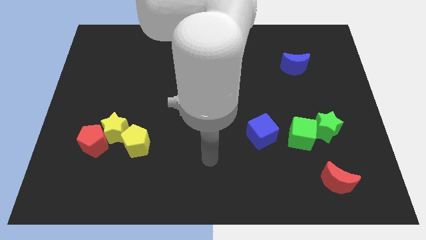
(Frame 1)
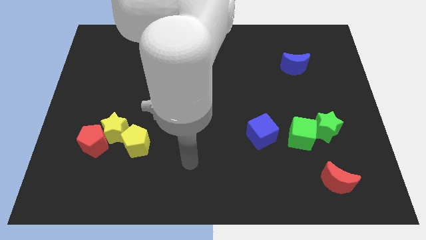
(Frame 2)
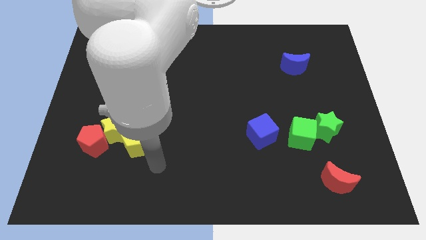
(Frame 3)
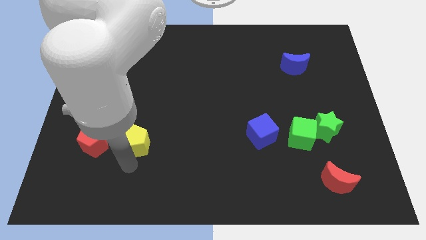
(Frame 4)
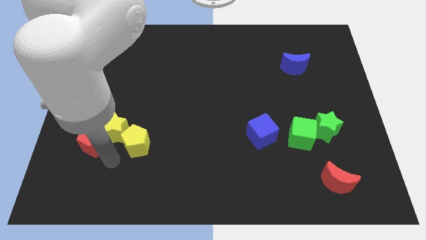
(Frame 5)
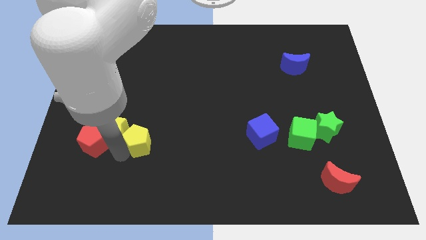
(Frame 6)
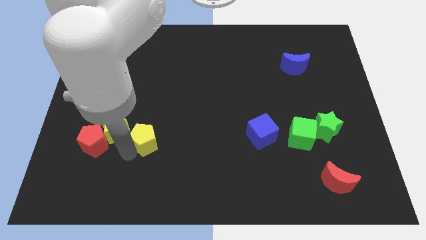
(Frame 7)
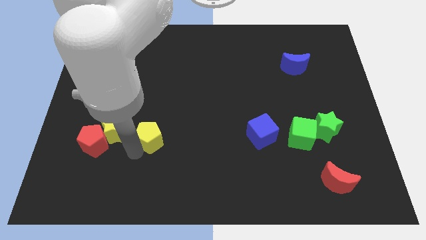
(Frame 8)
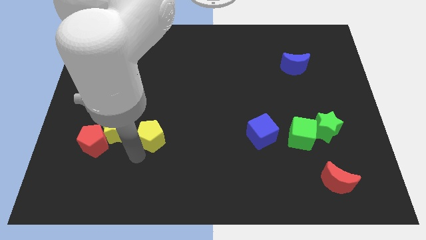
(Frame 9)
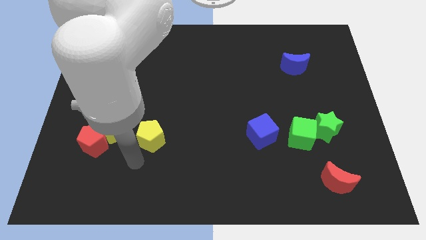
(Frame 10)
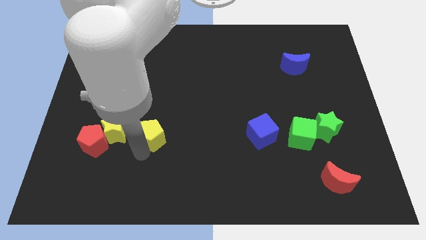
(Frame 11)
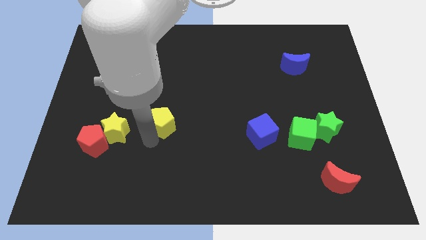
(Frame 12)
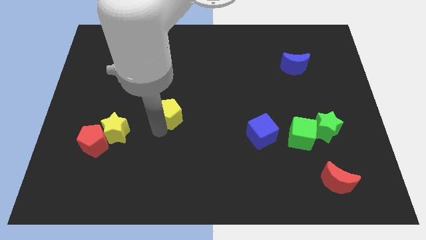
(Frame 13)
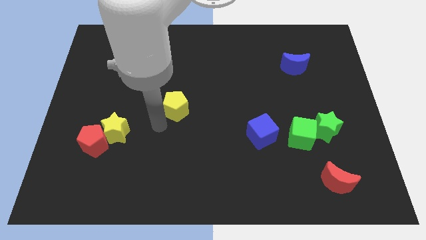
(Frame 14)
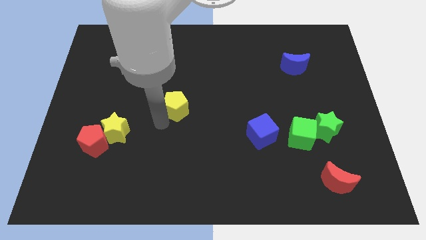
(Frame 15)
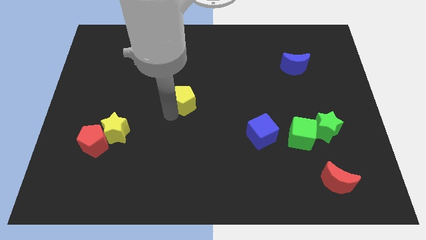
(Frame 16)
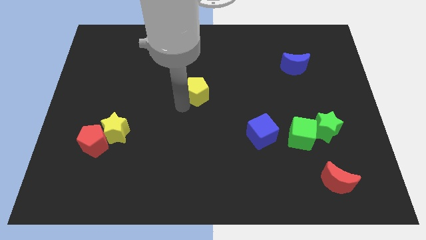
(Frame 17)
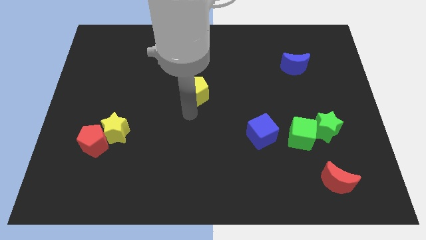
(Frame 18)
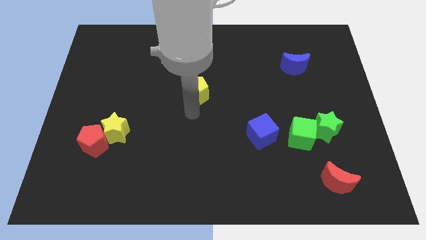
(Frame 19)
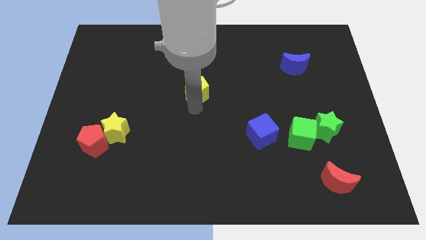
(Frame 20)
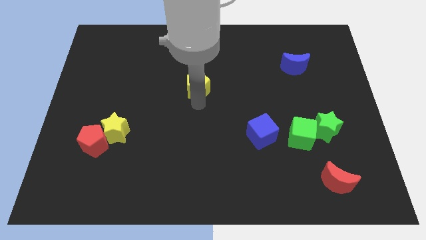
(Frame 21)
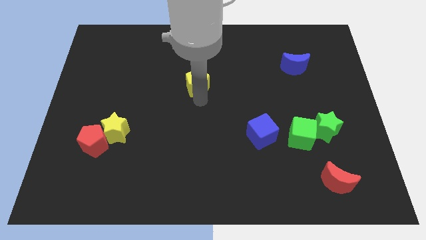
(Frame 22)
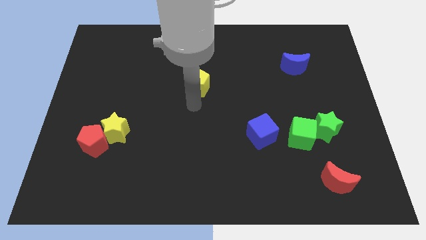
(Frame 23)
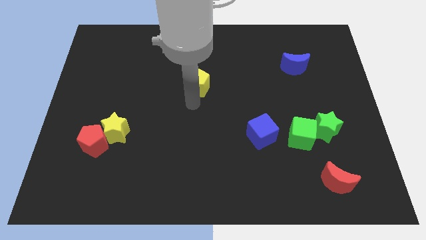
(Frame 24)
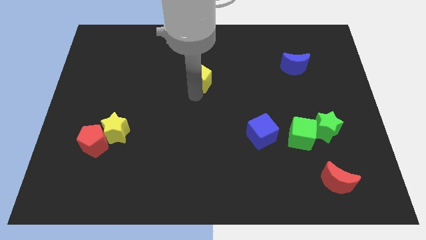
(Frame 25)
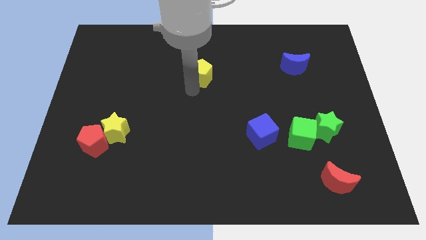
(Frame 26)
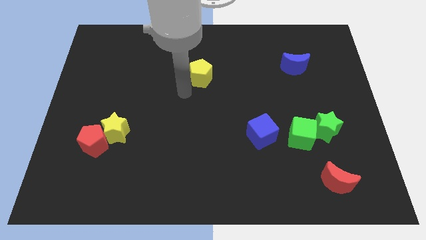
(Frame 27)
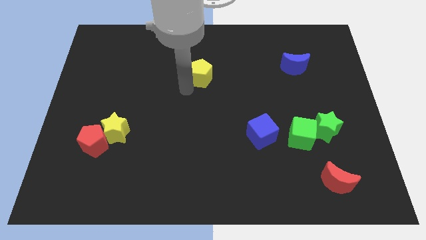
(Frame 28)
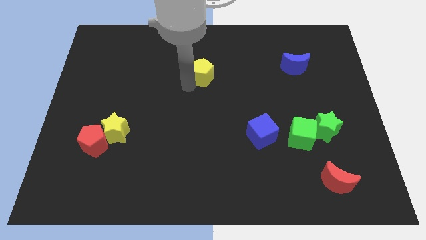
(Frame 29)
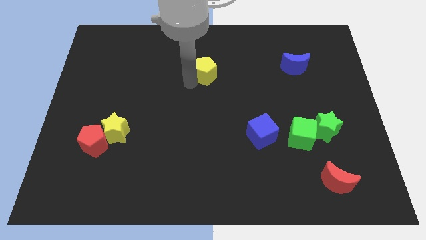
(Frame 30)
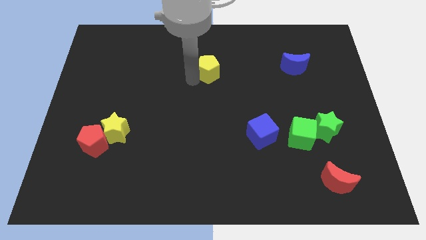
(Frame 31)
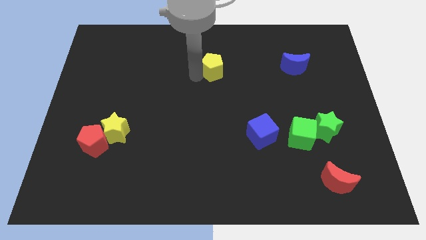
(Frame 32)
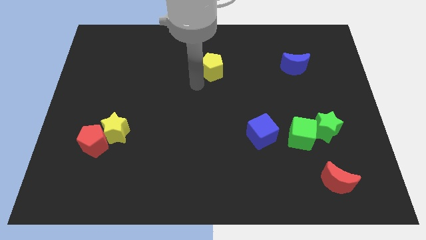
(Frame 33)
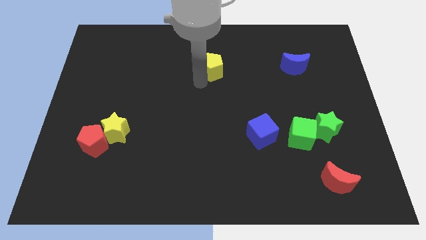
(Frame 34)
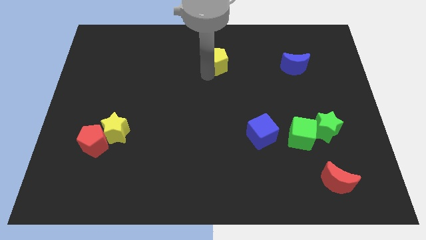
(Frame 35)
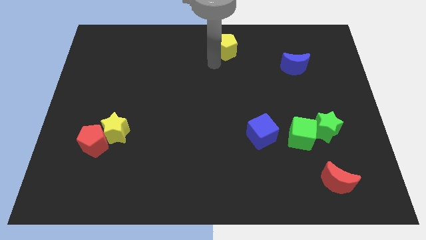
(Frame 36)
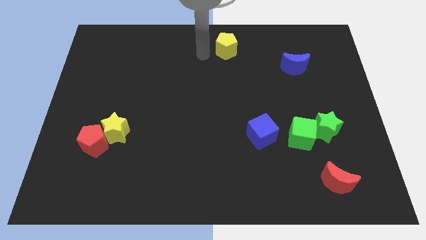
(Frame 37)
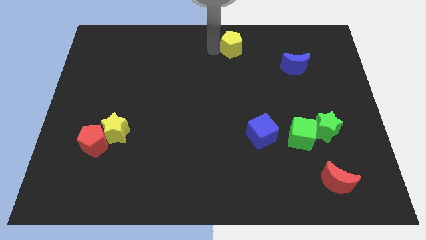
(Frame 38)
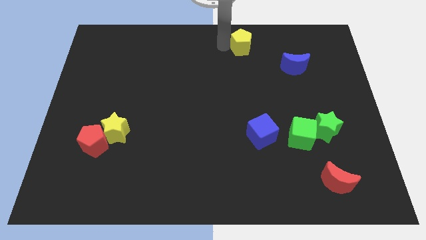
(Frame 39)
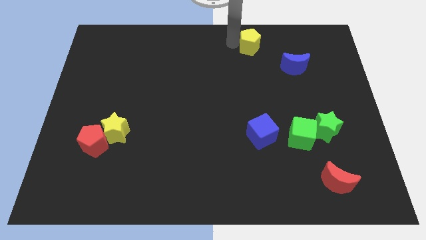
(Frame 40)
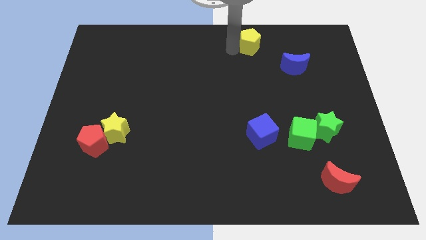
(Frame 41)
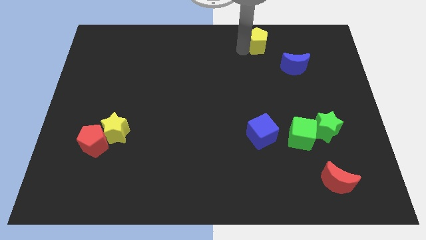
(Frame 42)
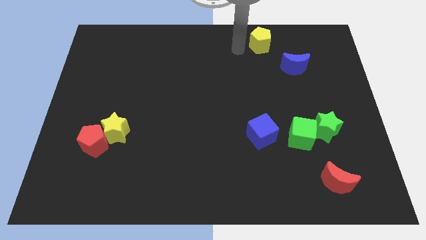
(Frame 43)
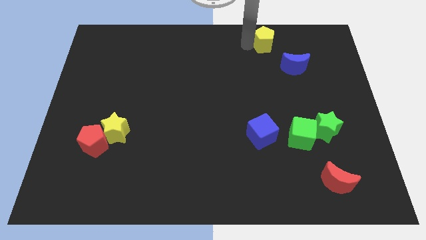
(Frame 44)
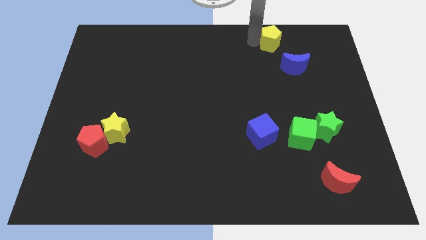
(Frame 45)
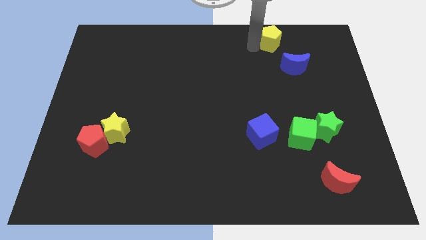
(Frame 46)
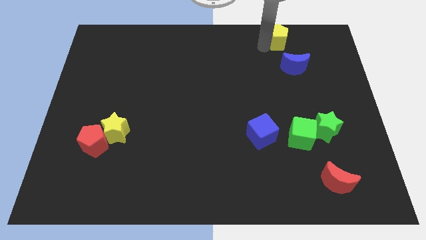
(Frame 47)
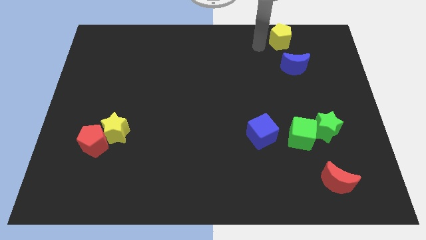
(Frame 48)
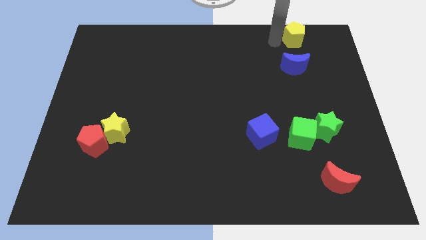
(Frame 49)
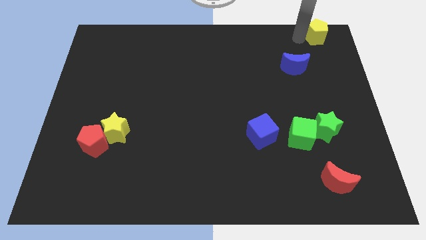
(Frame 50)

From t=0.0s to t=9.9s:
move the yellow pentagon to the top right of the board

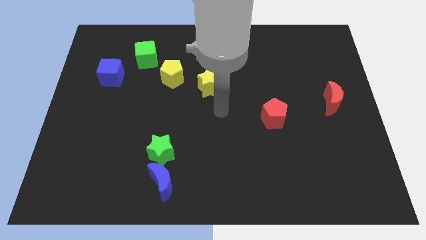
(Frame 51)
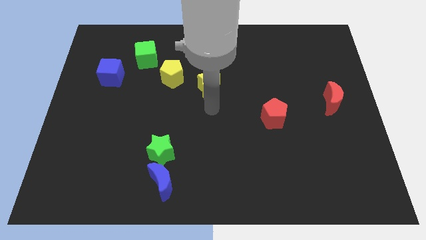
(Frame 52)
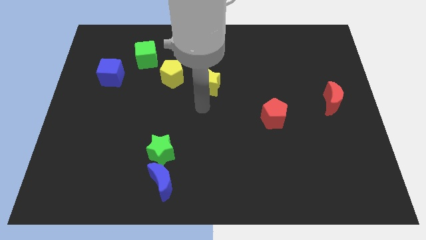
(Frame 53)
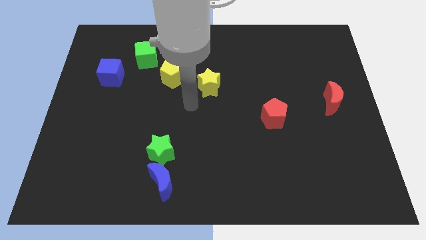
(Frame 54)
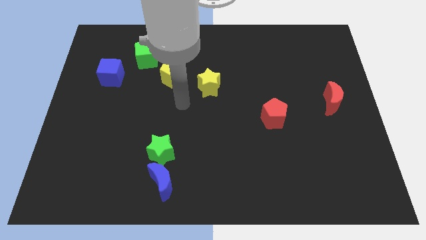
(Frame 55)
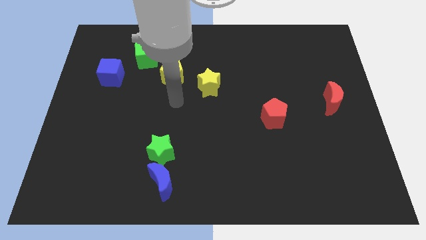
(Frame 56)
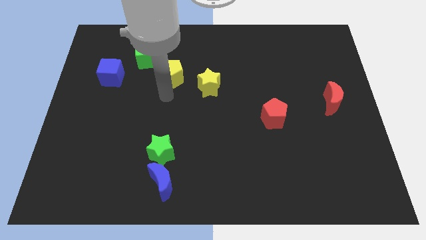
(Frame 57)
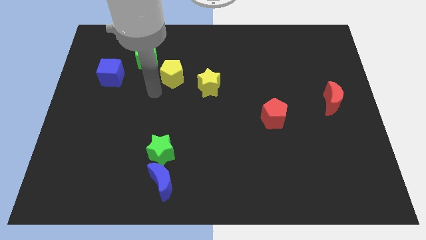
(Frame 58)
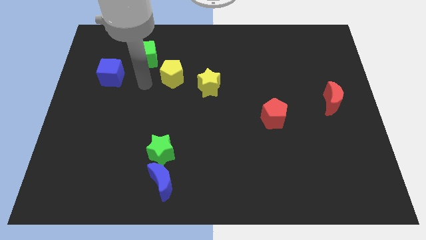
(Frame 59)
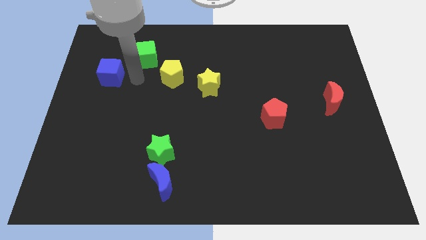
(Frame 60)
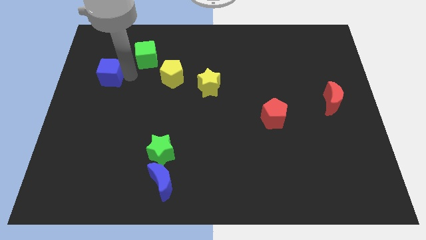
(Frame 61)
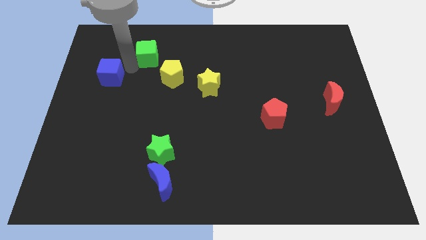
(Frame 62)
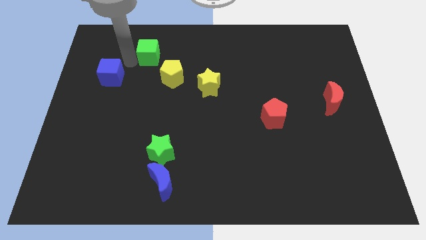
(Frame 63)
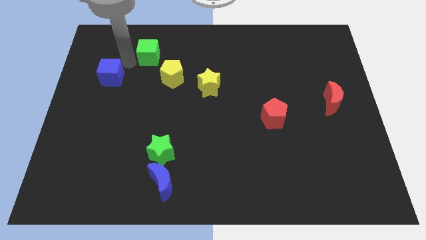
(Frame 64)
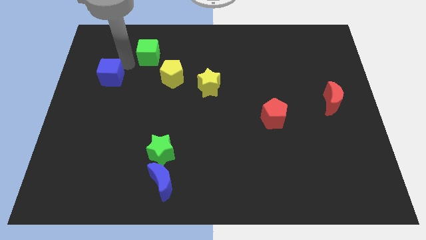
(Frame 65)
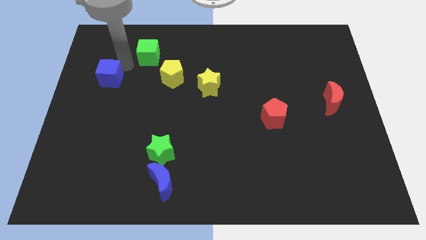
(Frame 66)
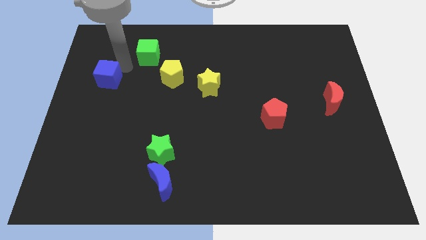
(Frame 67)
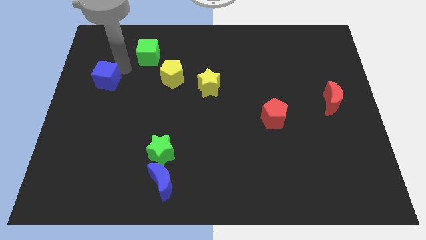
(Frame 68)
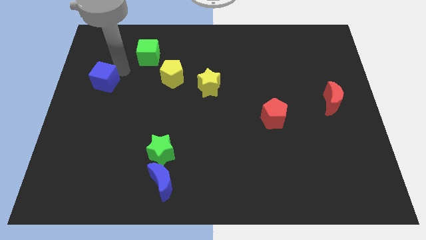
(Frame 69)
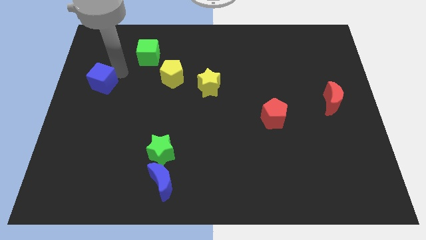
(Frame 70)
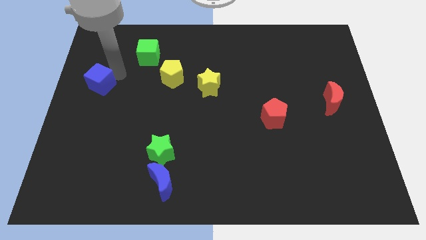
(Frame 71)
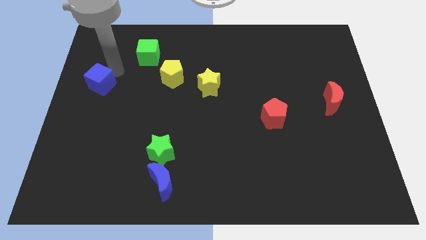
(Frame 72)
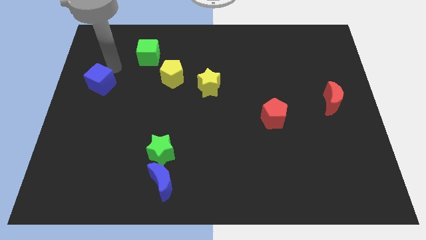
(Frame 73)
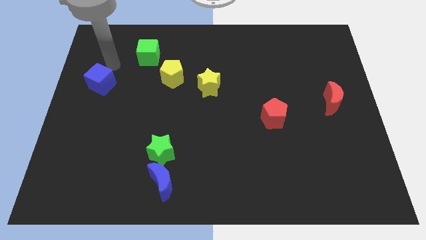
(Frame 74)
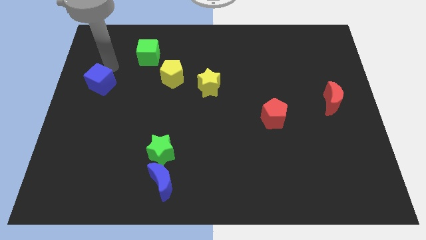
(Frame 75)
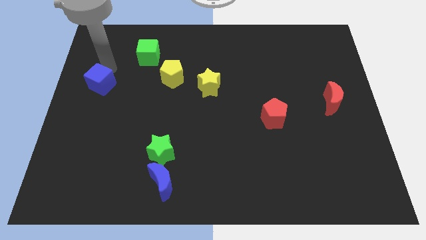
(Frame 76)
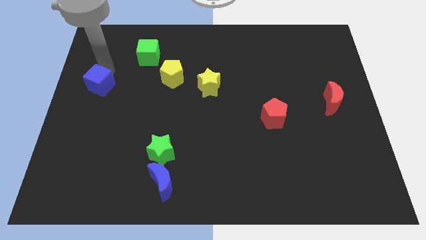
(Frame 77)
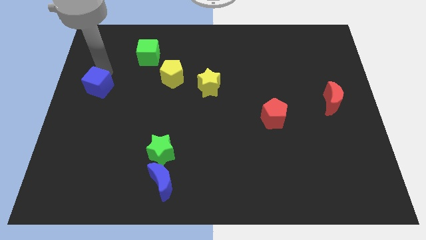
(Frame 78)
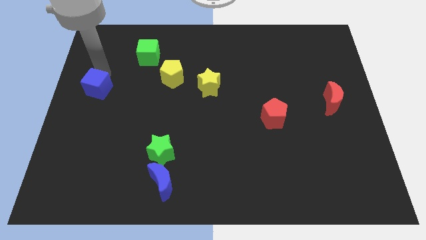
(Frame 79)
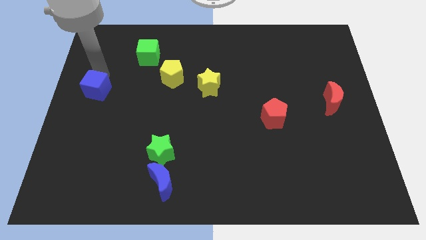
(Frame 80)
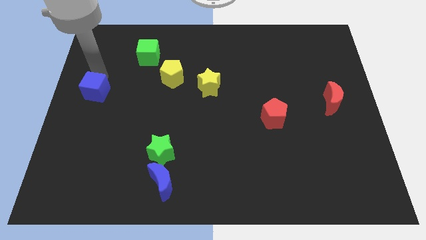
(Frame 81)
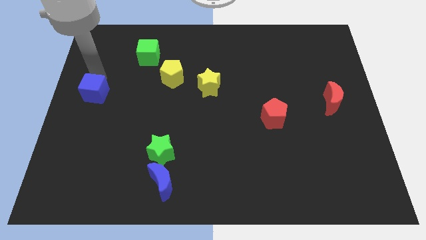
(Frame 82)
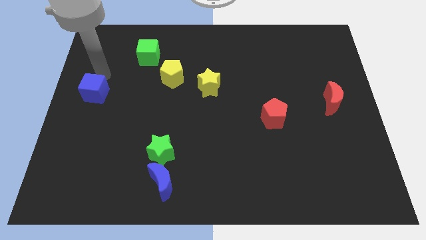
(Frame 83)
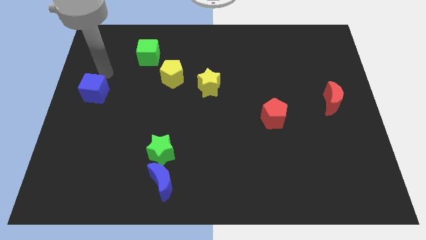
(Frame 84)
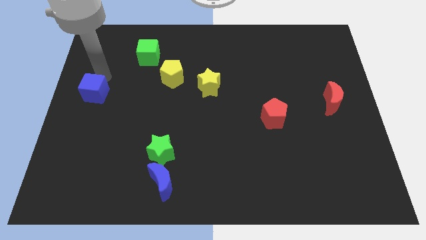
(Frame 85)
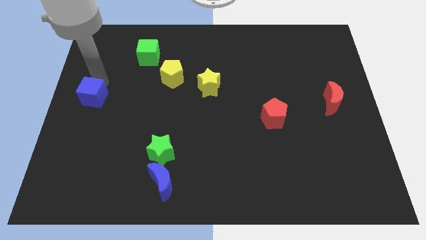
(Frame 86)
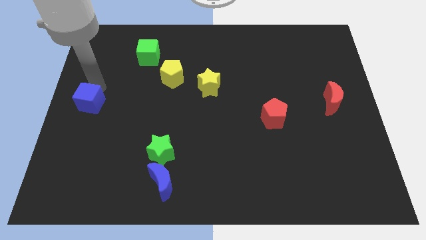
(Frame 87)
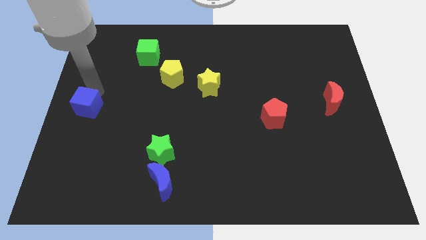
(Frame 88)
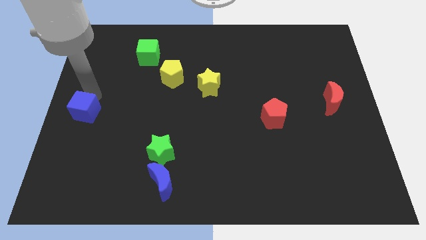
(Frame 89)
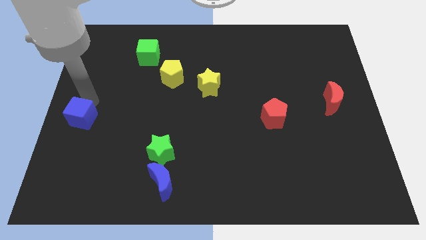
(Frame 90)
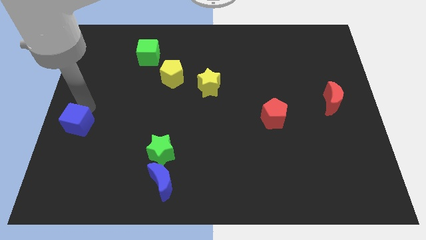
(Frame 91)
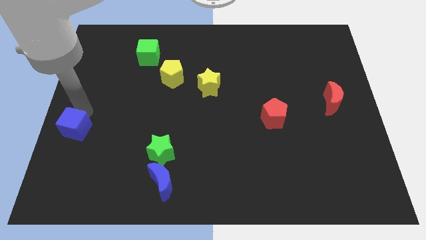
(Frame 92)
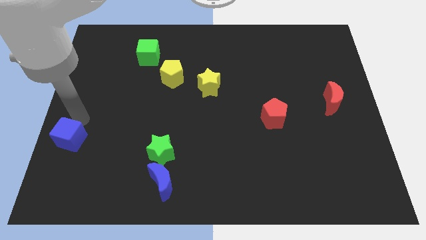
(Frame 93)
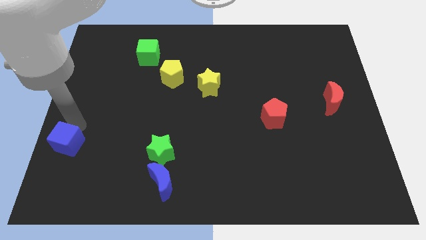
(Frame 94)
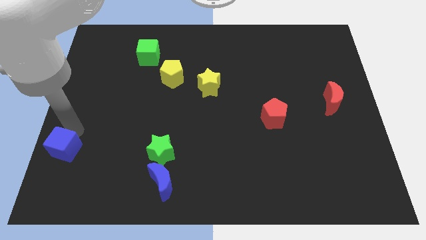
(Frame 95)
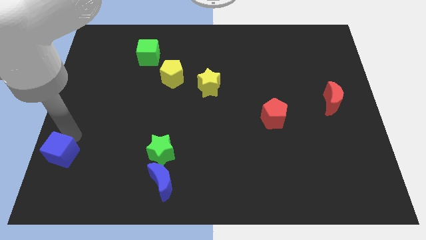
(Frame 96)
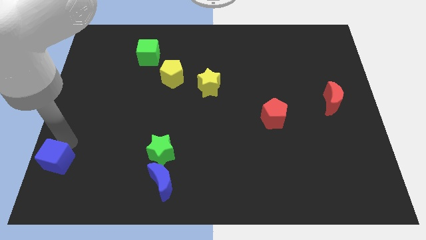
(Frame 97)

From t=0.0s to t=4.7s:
move the blue cube to the lower left corner
